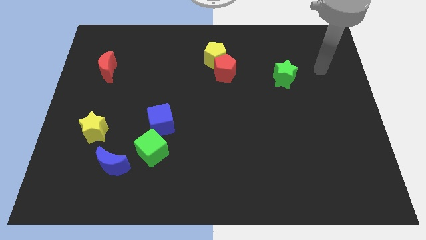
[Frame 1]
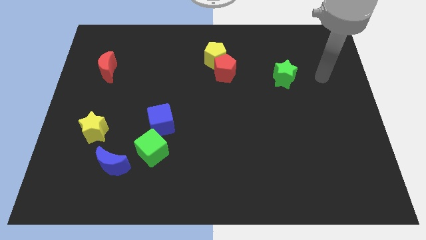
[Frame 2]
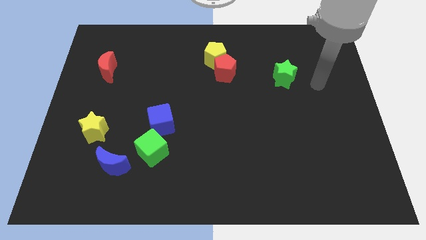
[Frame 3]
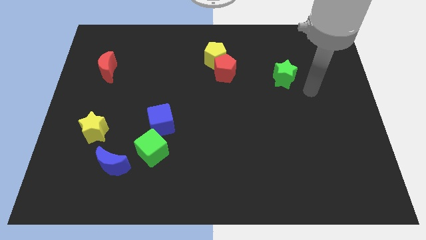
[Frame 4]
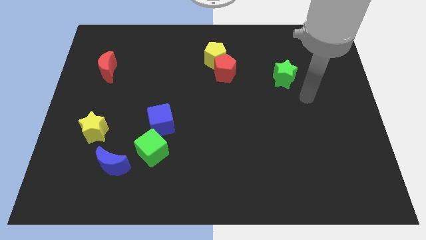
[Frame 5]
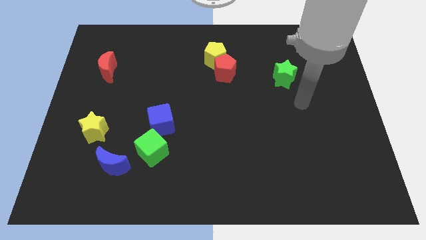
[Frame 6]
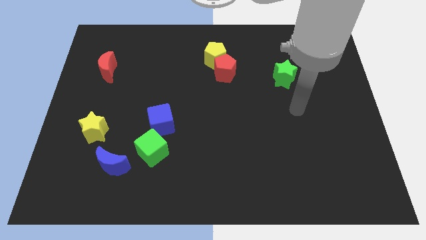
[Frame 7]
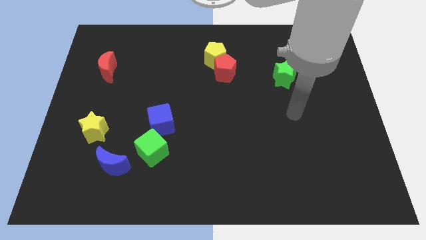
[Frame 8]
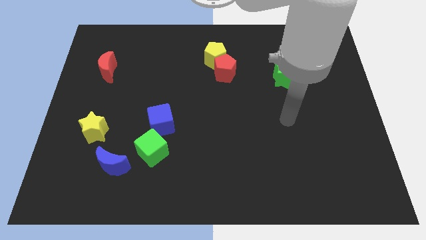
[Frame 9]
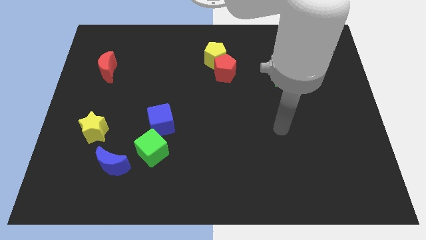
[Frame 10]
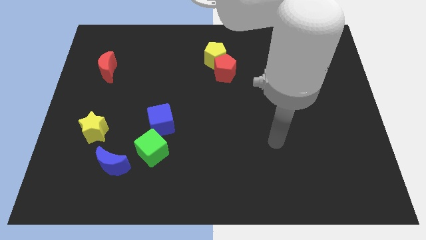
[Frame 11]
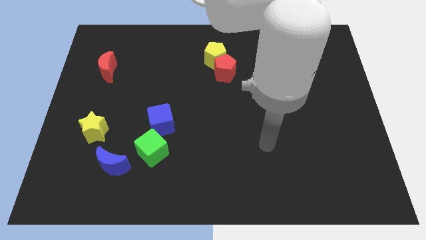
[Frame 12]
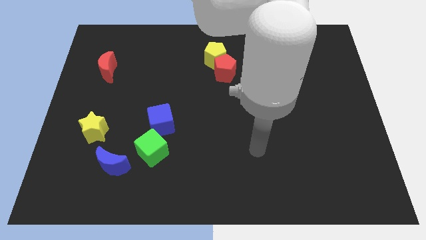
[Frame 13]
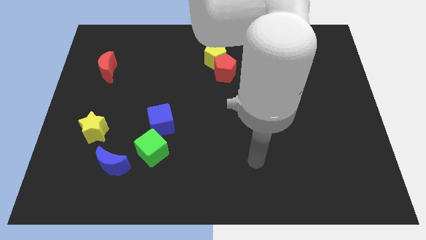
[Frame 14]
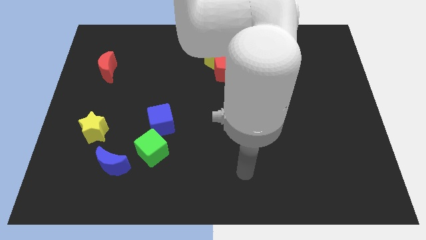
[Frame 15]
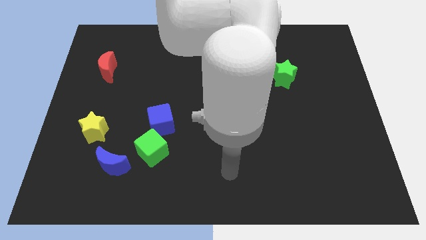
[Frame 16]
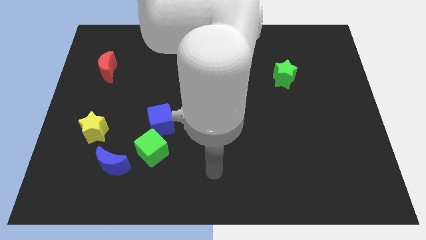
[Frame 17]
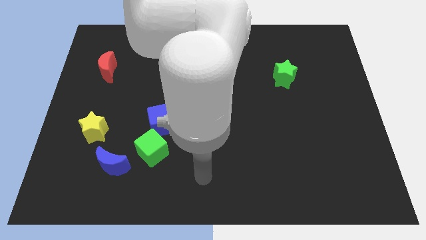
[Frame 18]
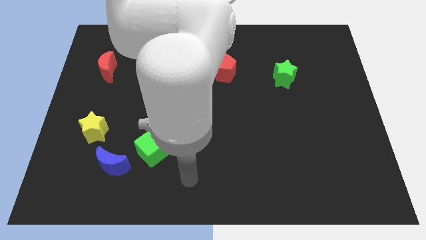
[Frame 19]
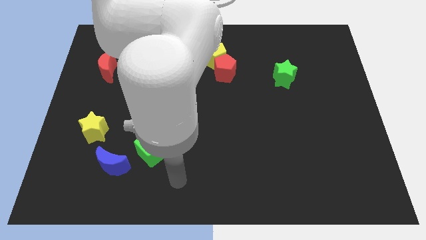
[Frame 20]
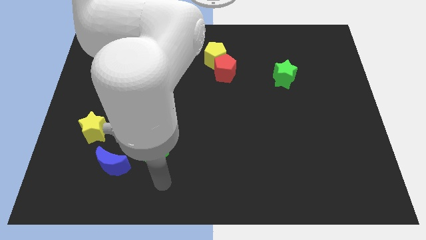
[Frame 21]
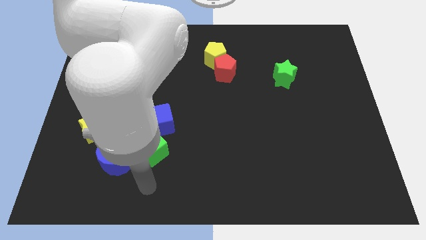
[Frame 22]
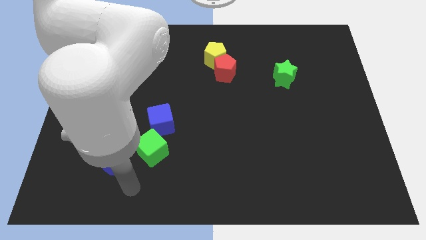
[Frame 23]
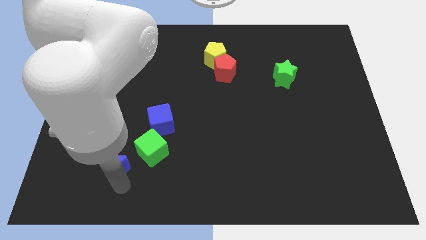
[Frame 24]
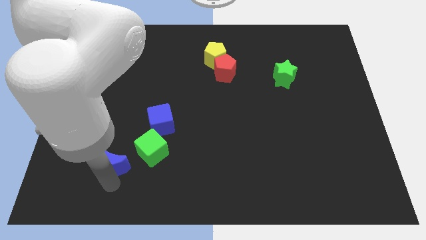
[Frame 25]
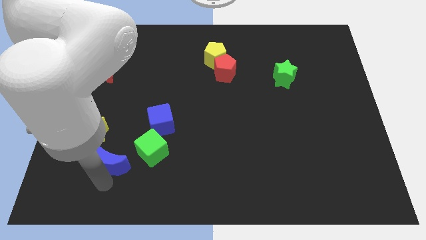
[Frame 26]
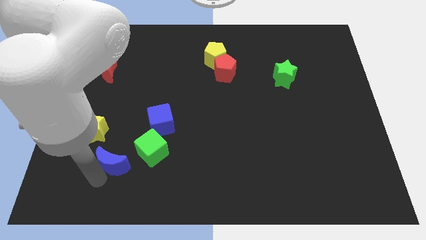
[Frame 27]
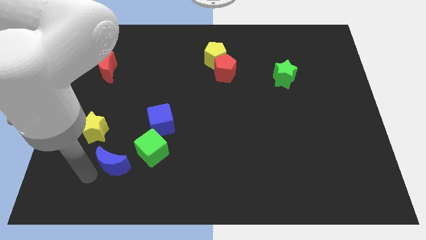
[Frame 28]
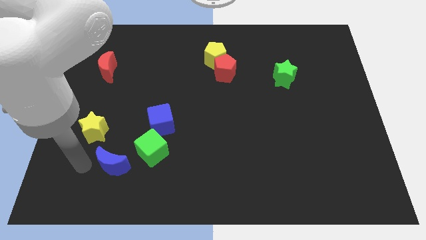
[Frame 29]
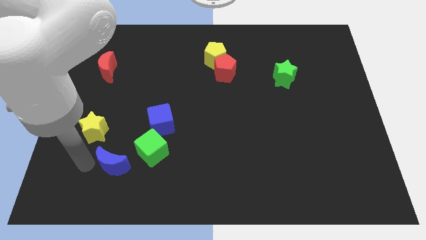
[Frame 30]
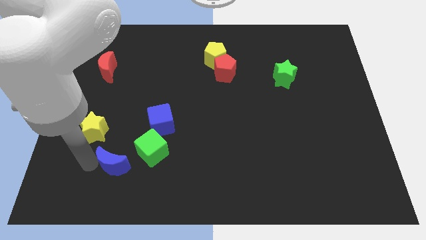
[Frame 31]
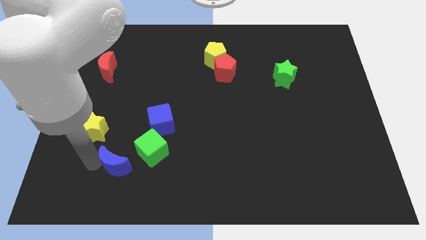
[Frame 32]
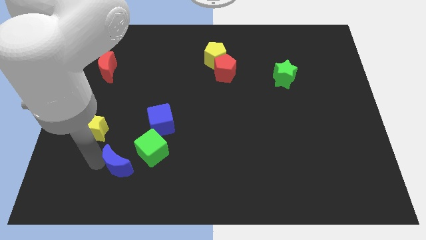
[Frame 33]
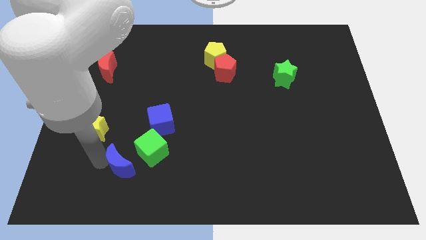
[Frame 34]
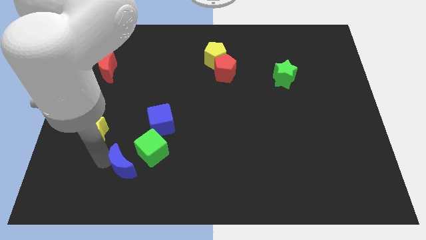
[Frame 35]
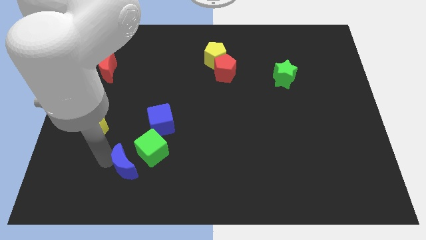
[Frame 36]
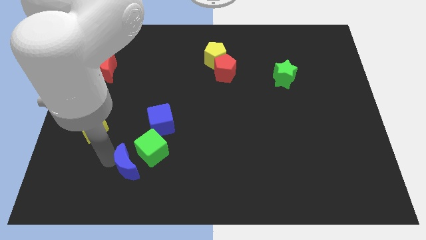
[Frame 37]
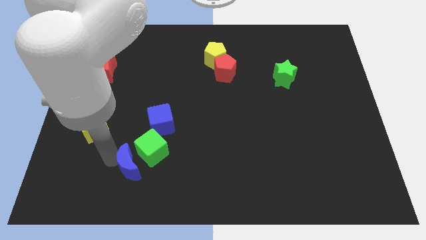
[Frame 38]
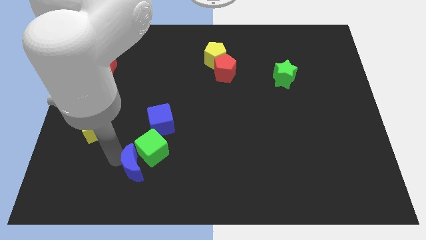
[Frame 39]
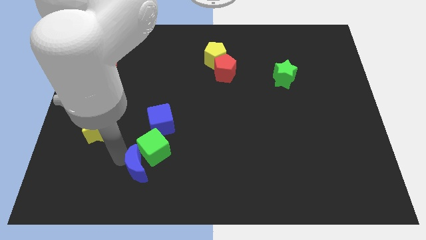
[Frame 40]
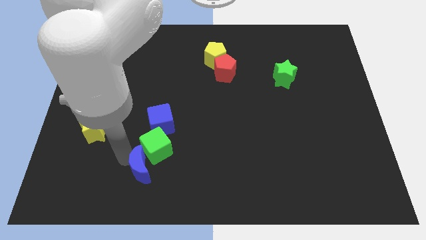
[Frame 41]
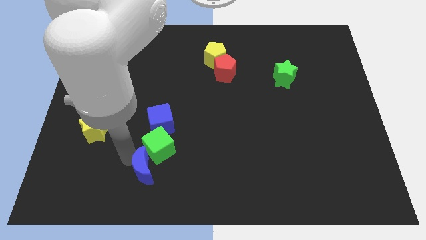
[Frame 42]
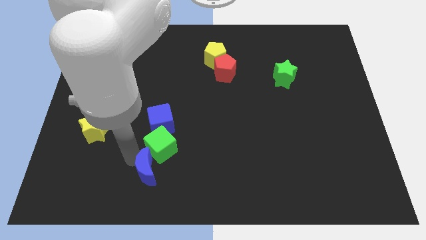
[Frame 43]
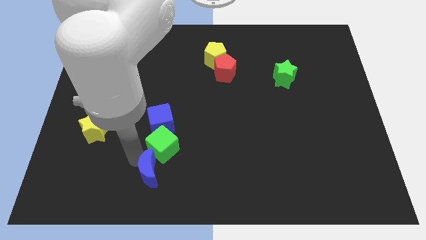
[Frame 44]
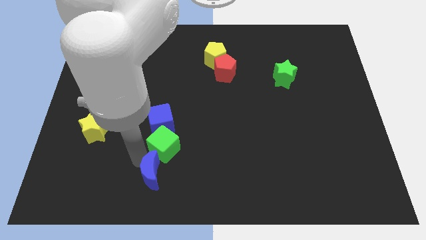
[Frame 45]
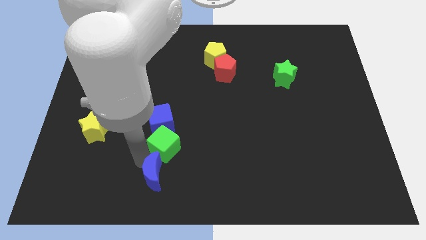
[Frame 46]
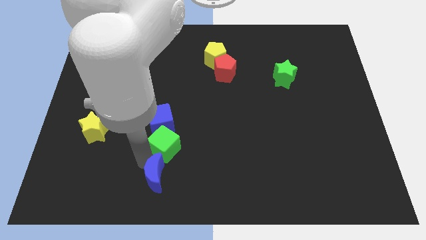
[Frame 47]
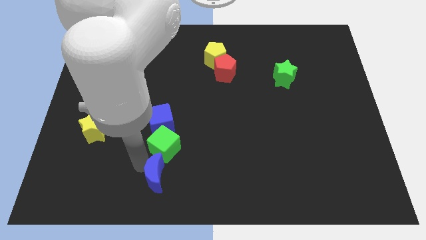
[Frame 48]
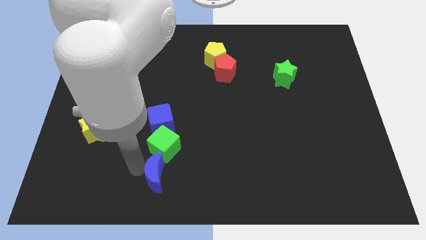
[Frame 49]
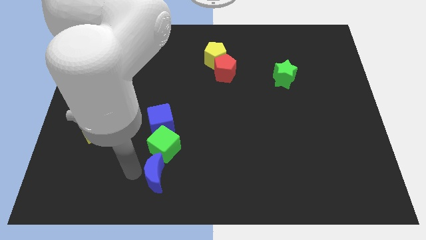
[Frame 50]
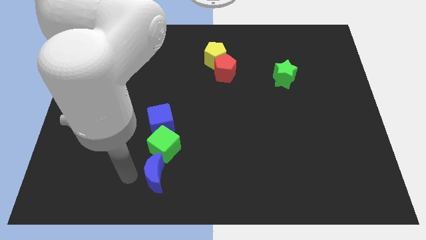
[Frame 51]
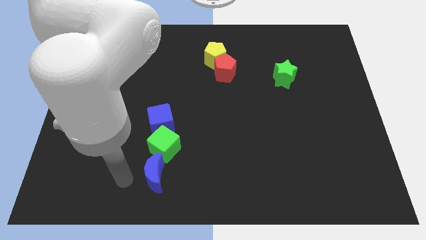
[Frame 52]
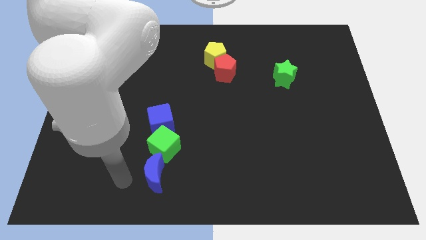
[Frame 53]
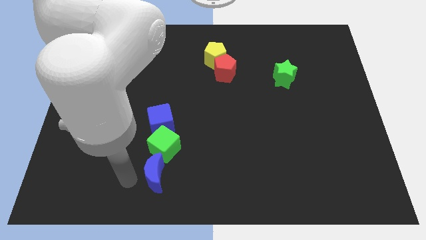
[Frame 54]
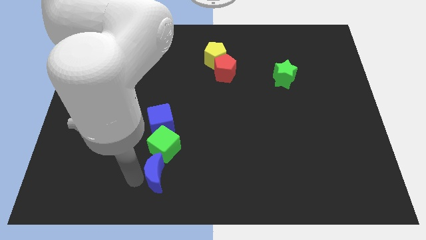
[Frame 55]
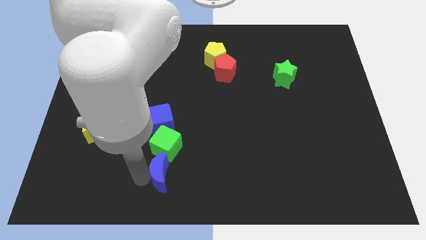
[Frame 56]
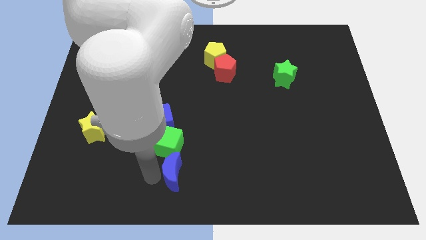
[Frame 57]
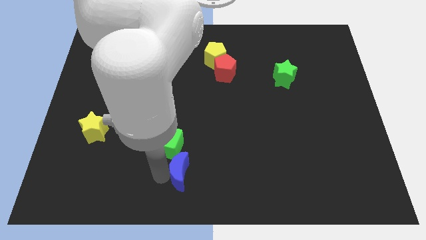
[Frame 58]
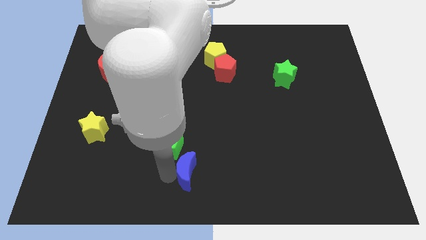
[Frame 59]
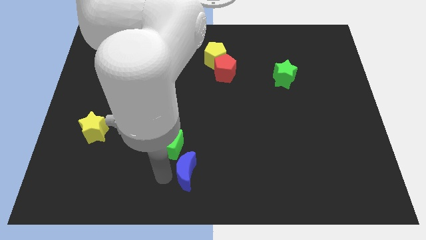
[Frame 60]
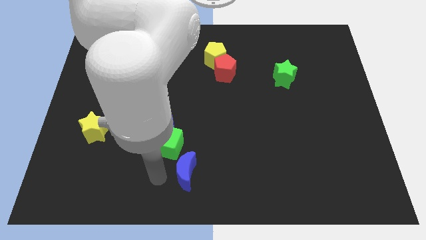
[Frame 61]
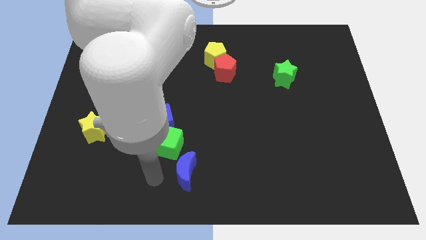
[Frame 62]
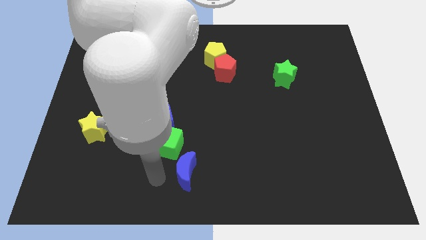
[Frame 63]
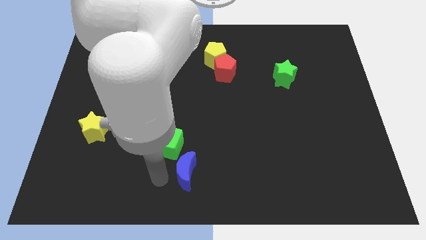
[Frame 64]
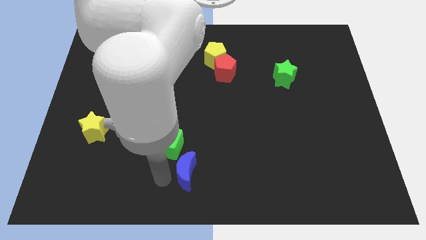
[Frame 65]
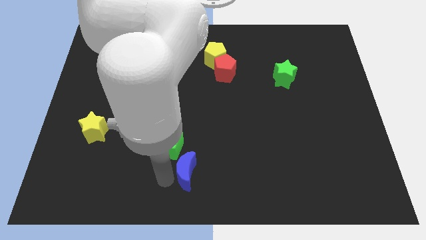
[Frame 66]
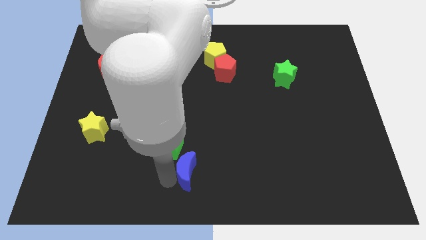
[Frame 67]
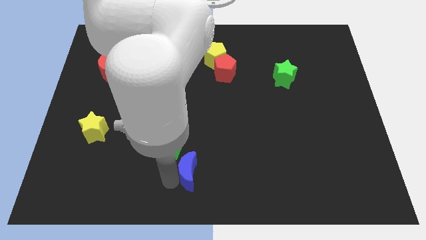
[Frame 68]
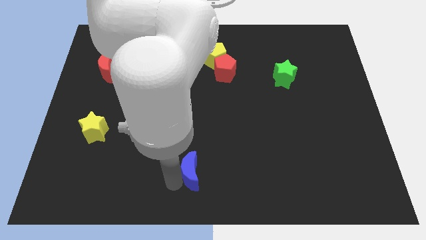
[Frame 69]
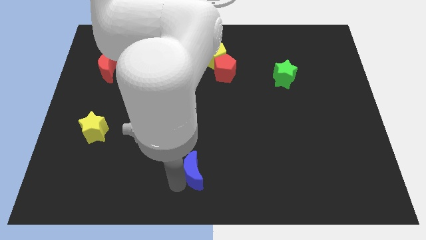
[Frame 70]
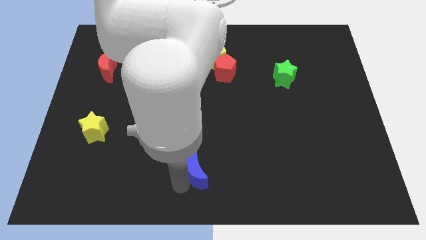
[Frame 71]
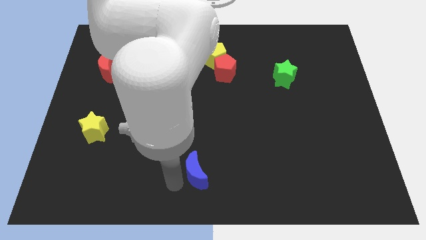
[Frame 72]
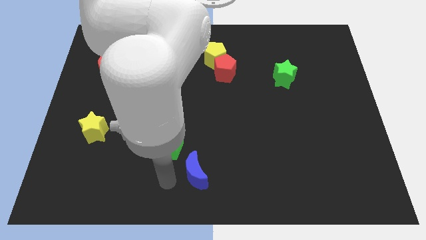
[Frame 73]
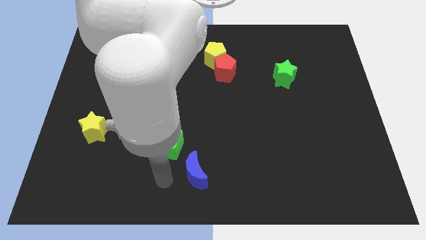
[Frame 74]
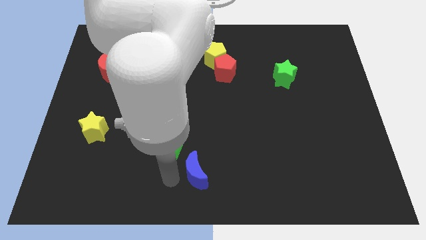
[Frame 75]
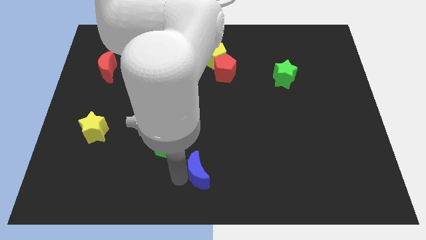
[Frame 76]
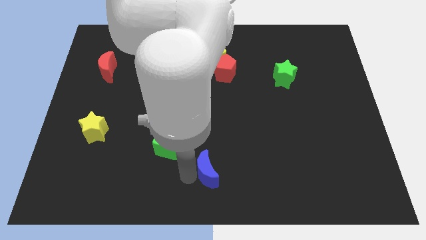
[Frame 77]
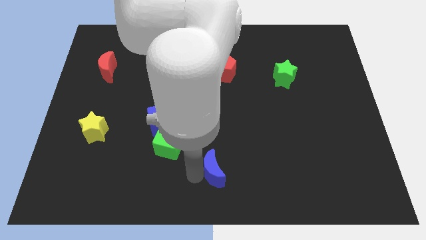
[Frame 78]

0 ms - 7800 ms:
move the blue moon right
